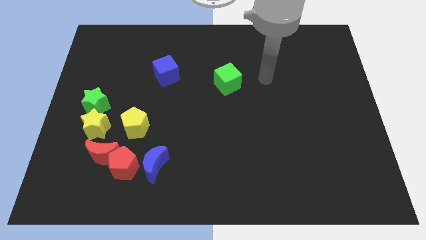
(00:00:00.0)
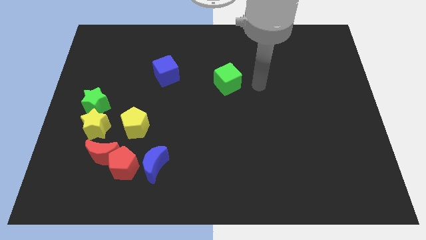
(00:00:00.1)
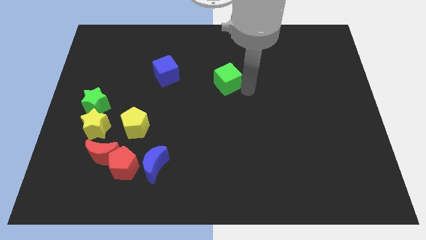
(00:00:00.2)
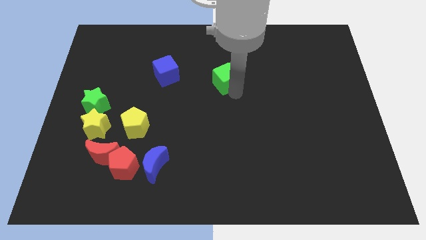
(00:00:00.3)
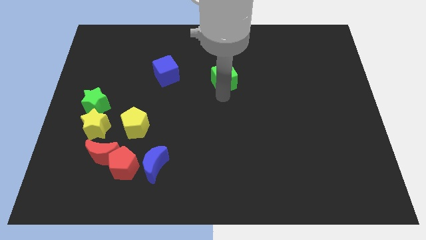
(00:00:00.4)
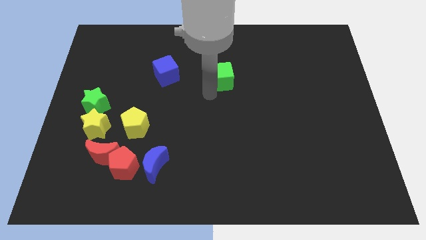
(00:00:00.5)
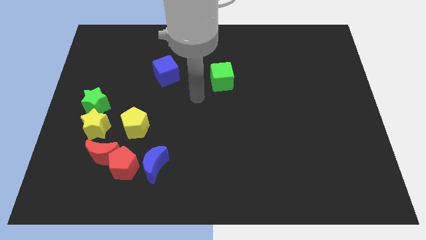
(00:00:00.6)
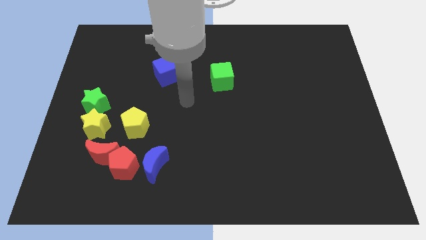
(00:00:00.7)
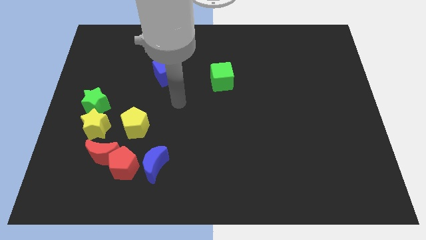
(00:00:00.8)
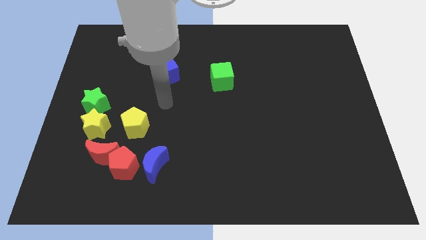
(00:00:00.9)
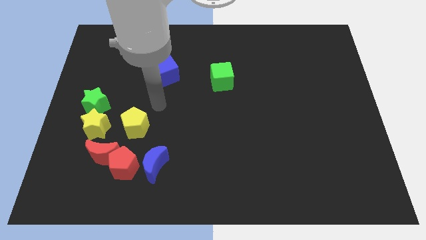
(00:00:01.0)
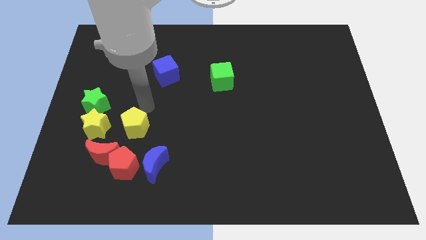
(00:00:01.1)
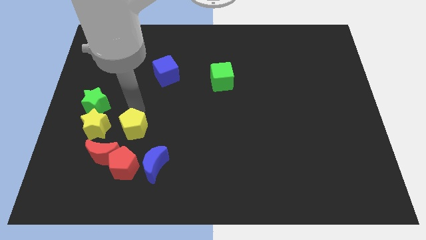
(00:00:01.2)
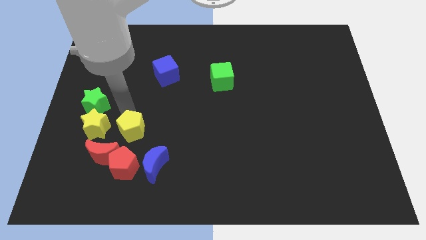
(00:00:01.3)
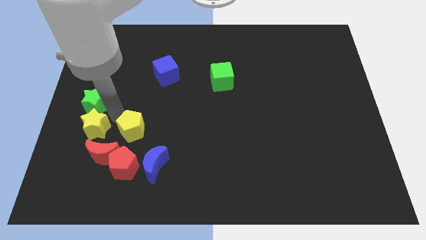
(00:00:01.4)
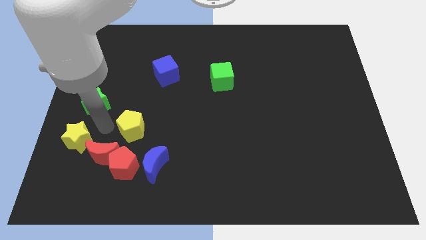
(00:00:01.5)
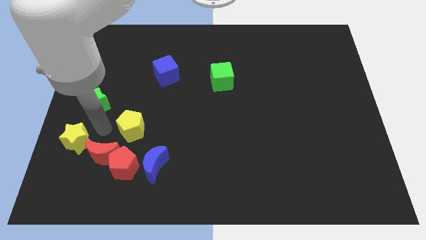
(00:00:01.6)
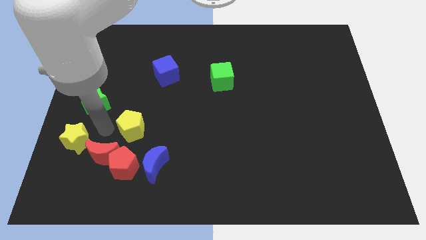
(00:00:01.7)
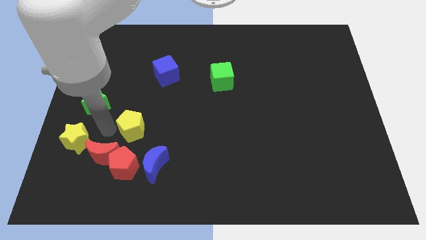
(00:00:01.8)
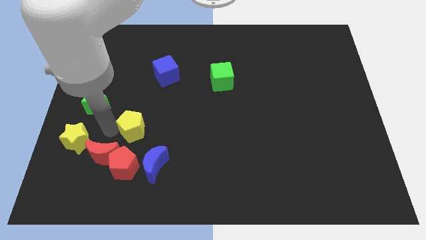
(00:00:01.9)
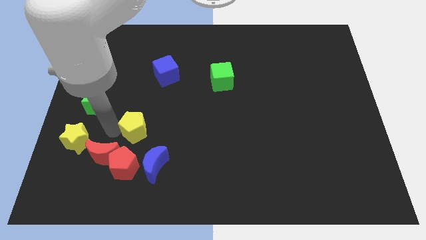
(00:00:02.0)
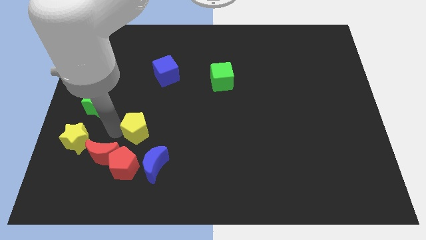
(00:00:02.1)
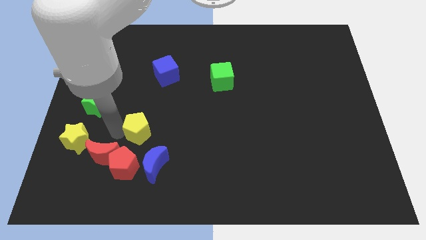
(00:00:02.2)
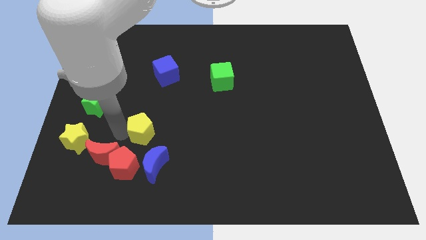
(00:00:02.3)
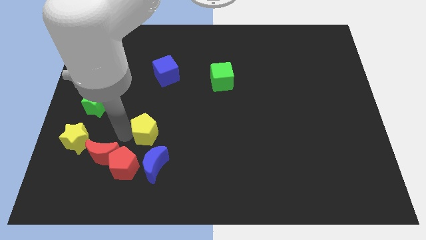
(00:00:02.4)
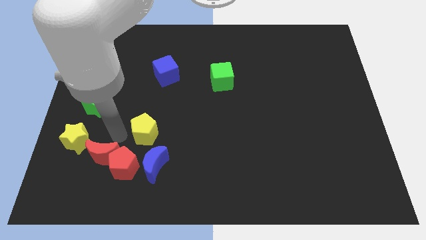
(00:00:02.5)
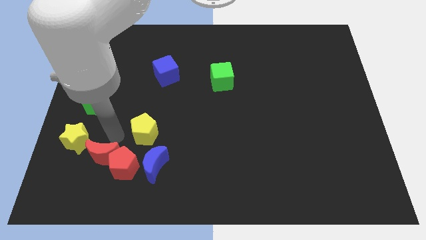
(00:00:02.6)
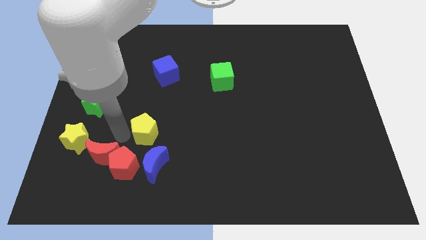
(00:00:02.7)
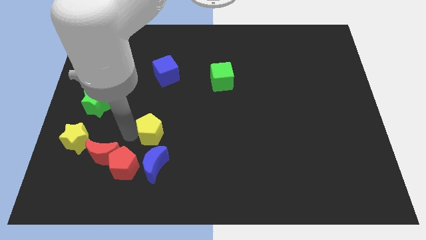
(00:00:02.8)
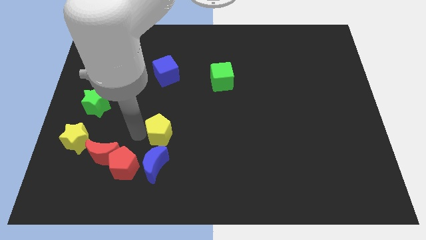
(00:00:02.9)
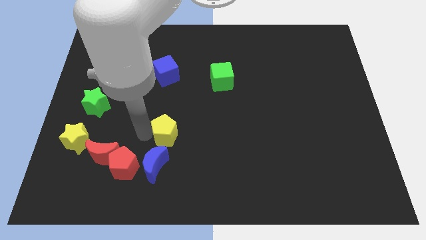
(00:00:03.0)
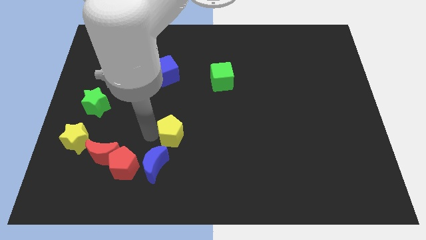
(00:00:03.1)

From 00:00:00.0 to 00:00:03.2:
push the yellow pentagon right somewhat

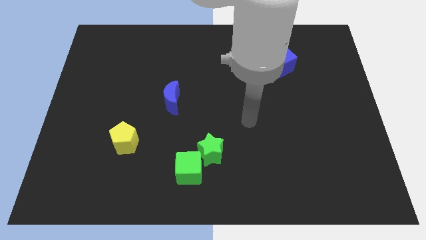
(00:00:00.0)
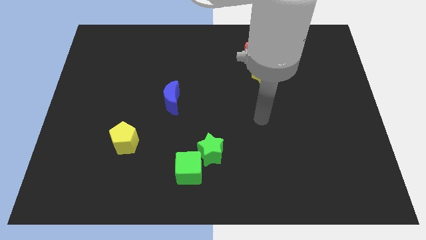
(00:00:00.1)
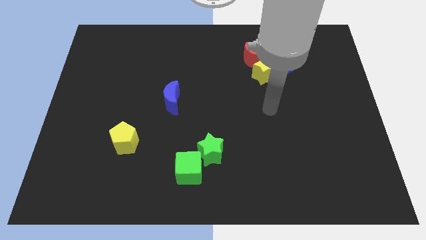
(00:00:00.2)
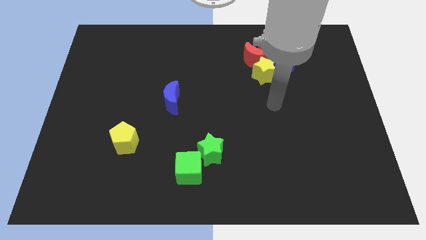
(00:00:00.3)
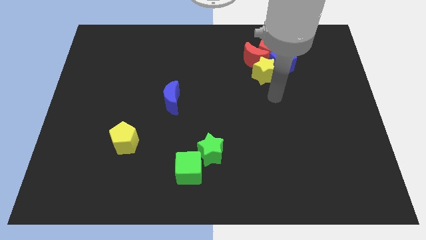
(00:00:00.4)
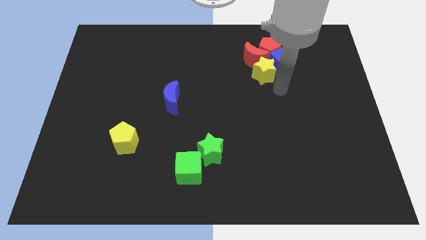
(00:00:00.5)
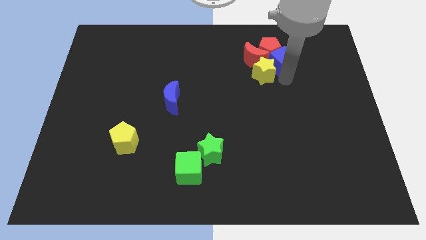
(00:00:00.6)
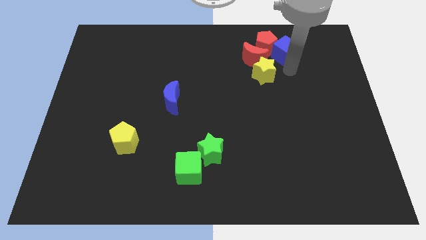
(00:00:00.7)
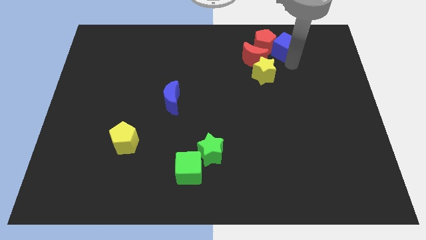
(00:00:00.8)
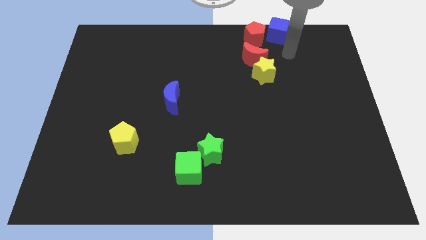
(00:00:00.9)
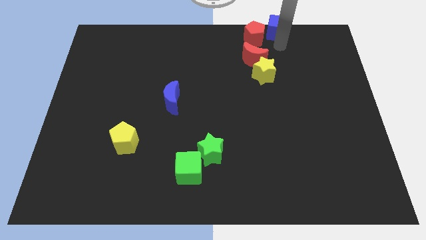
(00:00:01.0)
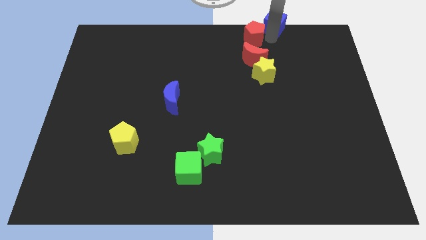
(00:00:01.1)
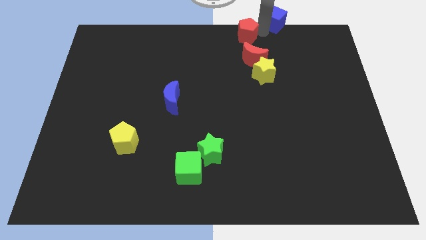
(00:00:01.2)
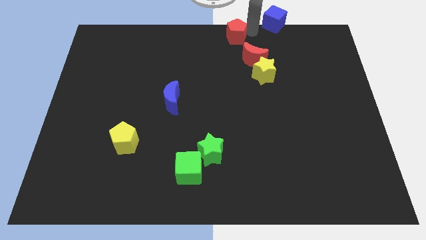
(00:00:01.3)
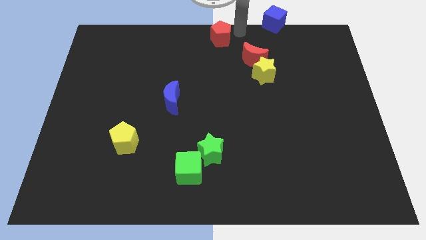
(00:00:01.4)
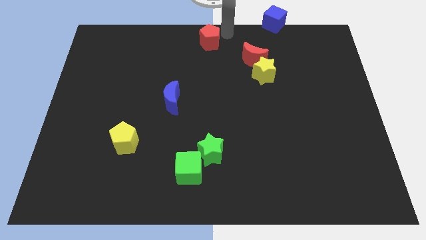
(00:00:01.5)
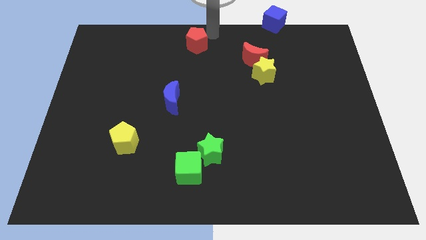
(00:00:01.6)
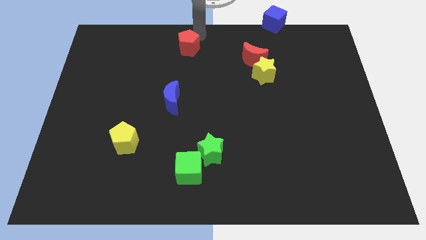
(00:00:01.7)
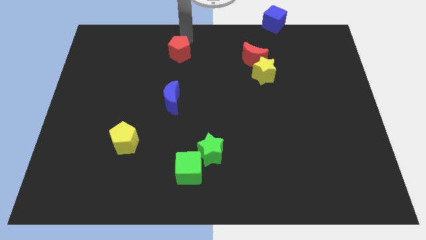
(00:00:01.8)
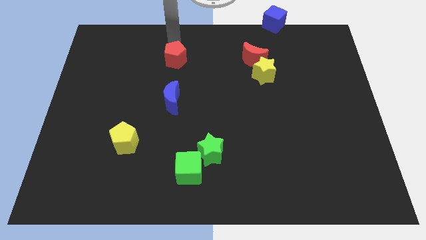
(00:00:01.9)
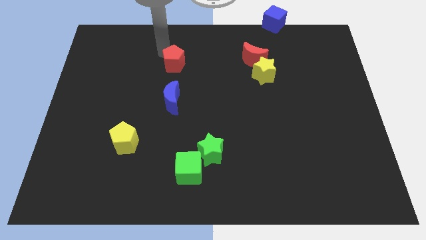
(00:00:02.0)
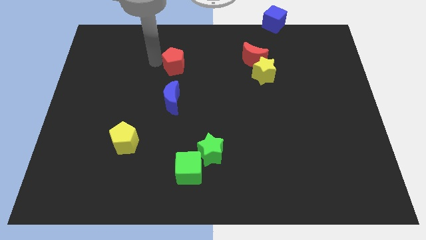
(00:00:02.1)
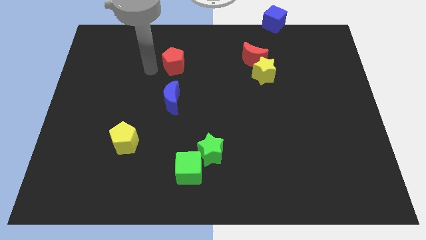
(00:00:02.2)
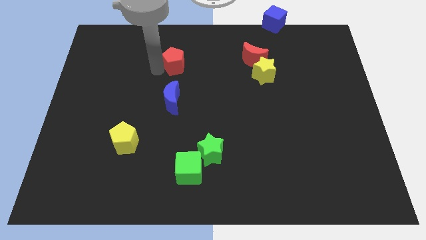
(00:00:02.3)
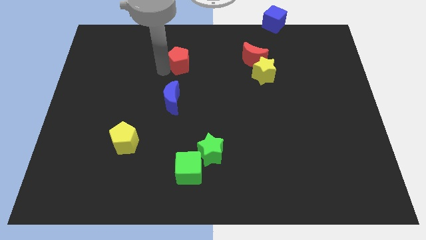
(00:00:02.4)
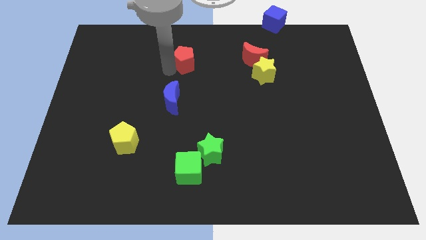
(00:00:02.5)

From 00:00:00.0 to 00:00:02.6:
slightly push the red pentagon diagonally down and left

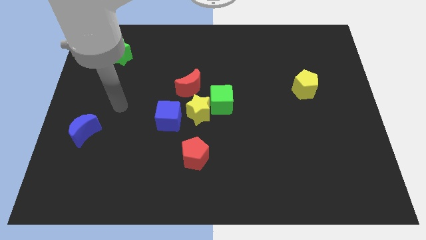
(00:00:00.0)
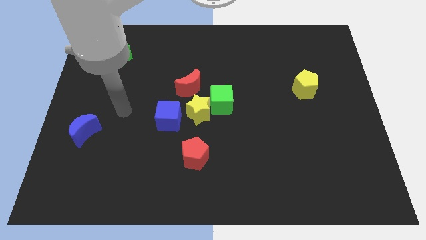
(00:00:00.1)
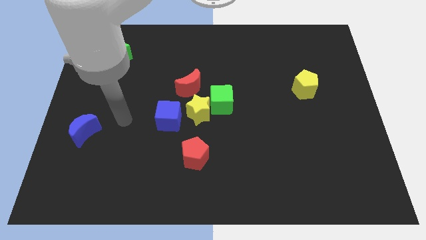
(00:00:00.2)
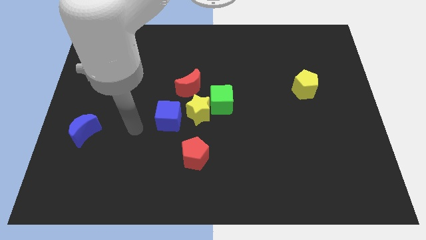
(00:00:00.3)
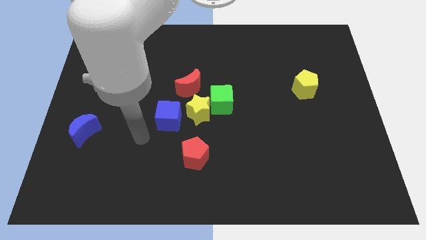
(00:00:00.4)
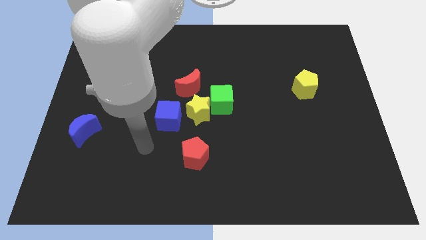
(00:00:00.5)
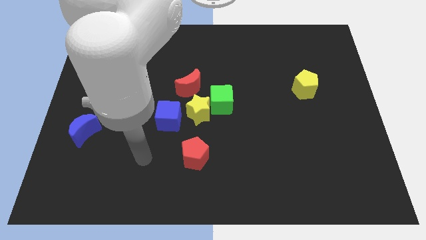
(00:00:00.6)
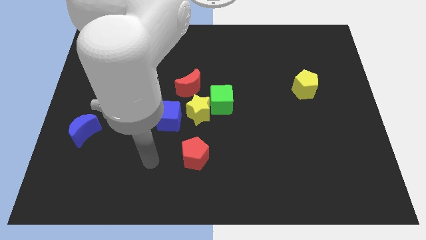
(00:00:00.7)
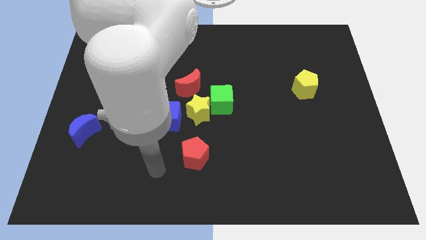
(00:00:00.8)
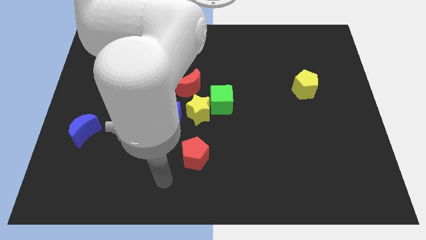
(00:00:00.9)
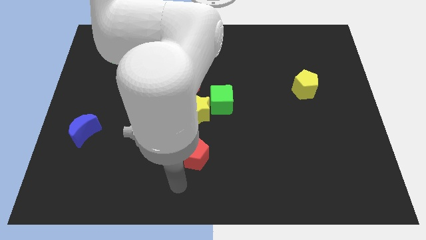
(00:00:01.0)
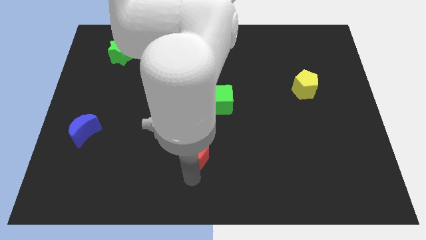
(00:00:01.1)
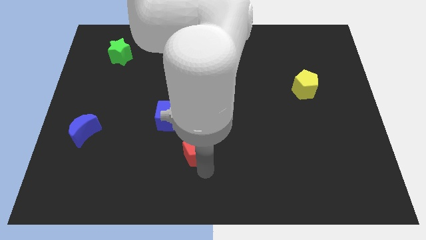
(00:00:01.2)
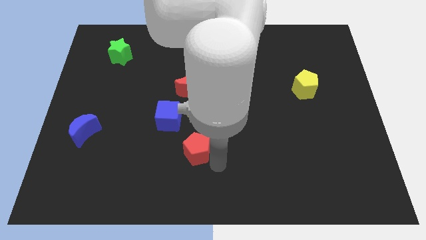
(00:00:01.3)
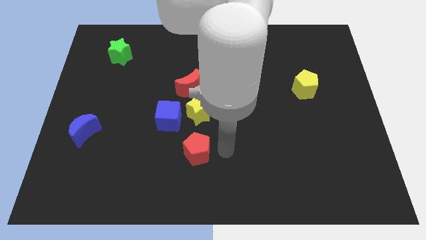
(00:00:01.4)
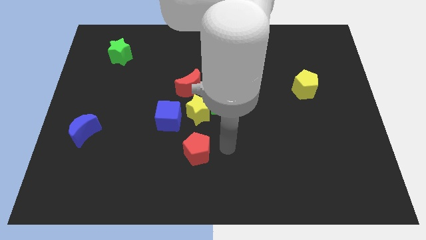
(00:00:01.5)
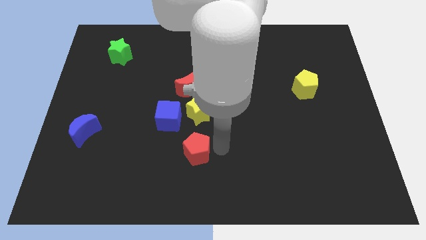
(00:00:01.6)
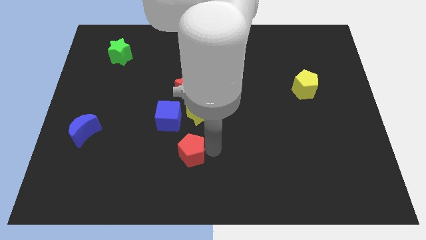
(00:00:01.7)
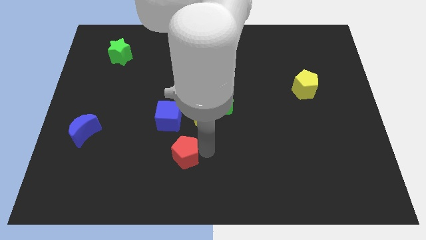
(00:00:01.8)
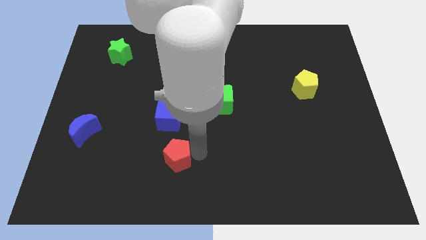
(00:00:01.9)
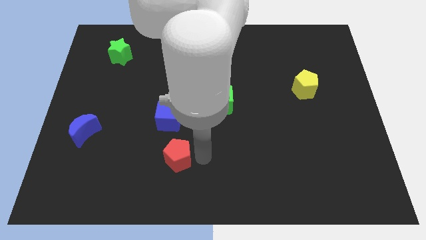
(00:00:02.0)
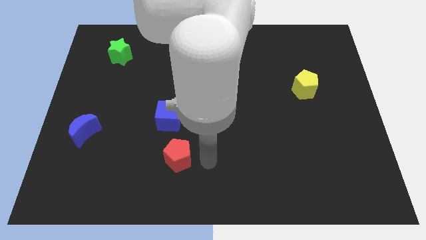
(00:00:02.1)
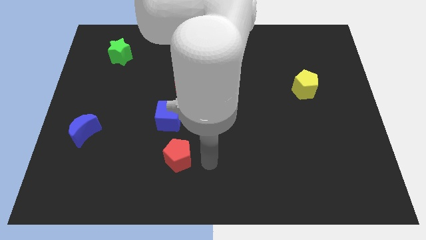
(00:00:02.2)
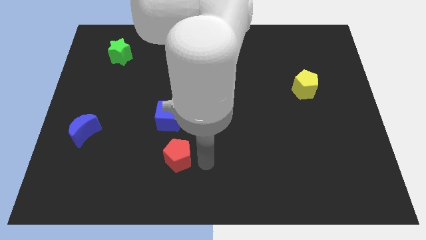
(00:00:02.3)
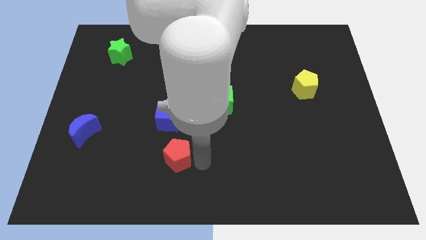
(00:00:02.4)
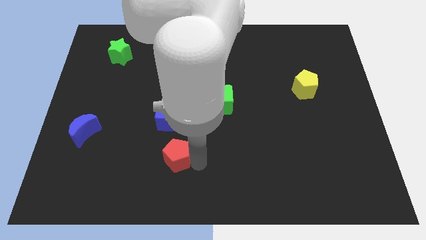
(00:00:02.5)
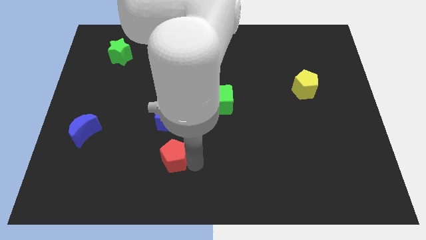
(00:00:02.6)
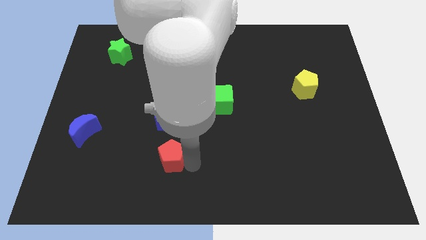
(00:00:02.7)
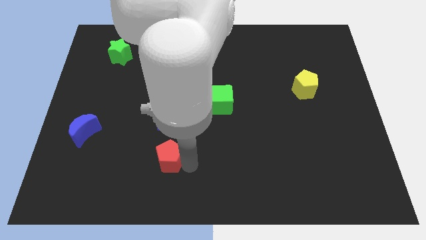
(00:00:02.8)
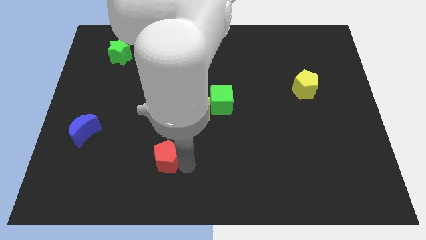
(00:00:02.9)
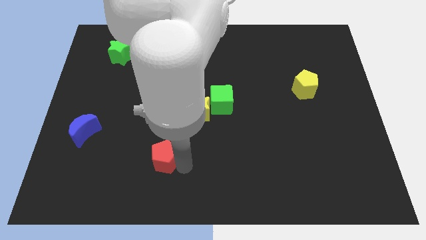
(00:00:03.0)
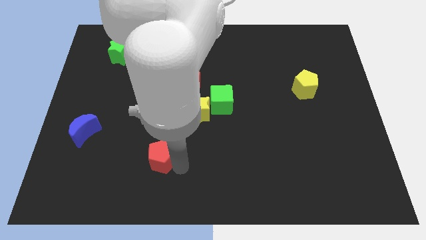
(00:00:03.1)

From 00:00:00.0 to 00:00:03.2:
slide the red pentagon somewhat to the left
